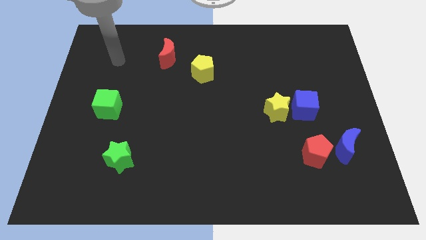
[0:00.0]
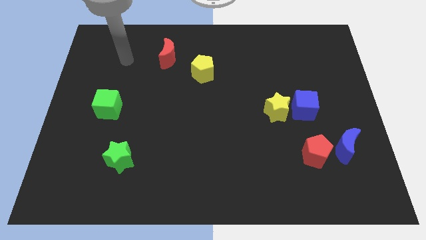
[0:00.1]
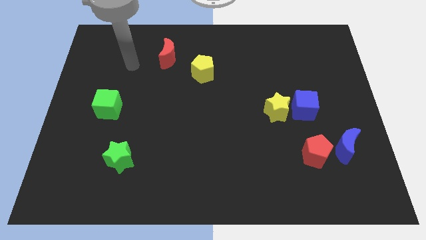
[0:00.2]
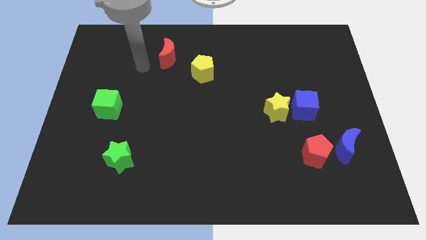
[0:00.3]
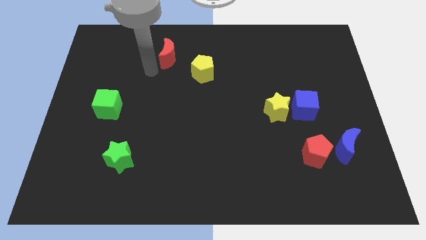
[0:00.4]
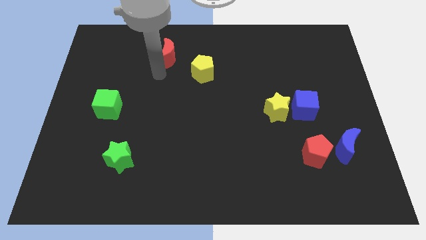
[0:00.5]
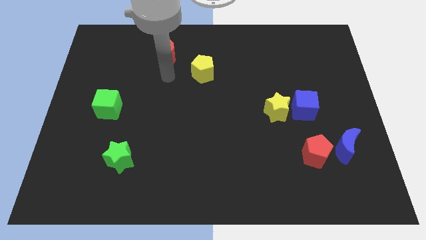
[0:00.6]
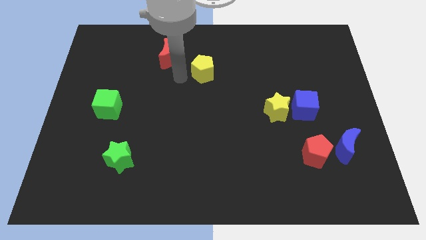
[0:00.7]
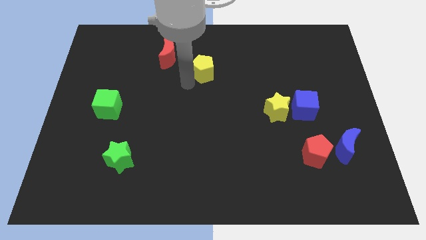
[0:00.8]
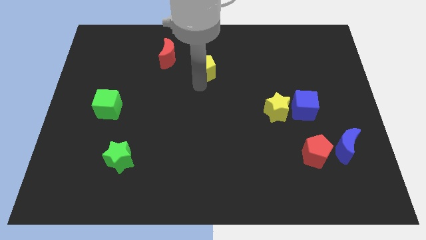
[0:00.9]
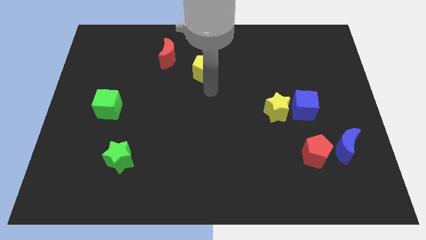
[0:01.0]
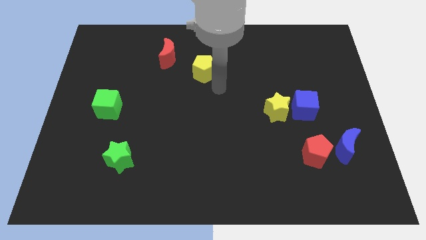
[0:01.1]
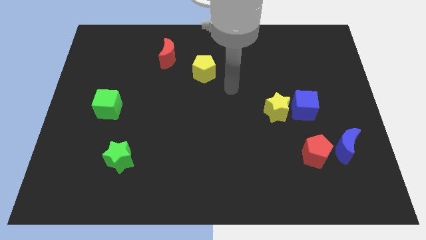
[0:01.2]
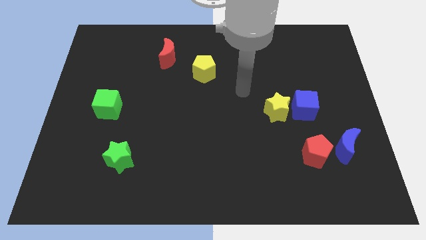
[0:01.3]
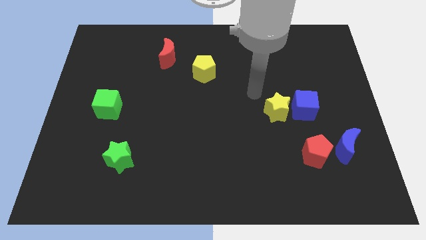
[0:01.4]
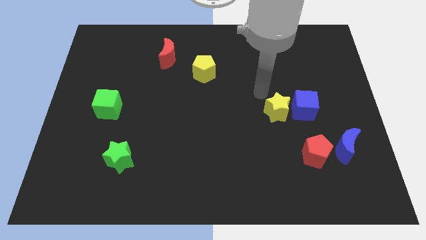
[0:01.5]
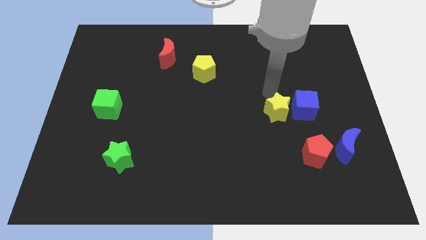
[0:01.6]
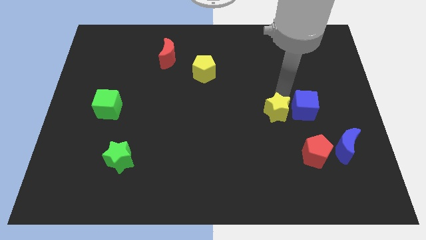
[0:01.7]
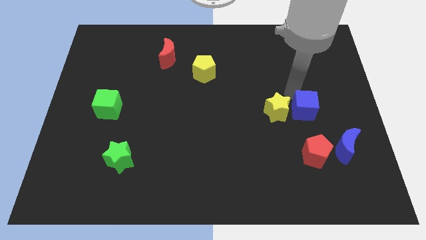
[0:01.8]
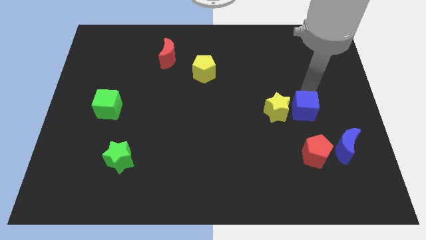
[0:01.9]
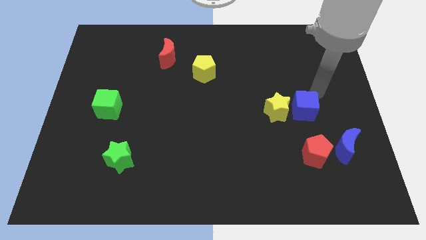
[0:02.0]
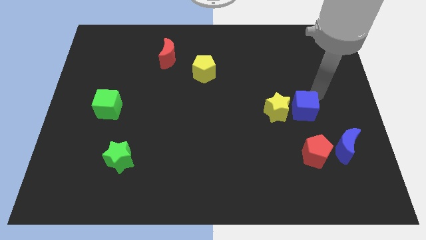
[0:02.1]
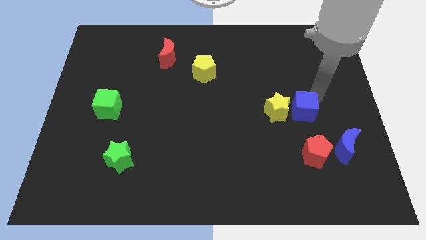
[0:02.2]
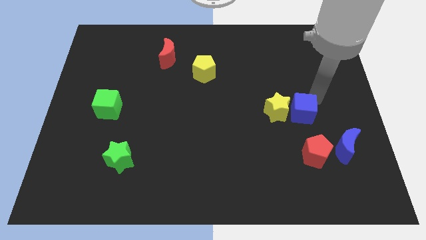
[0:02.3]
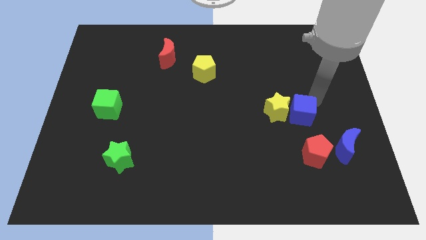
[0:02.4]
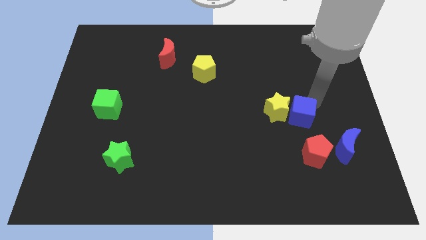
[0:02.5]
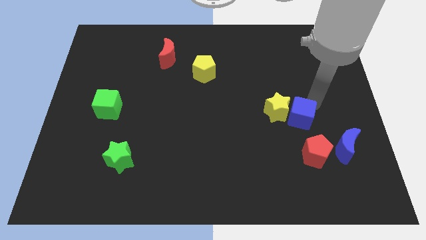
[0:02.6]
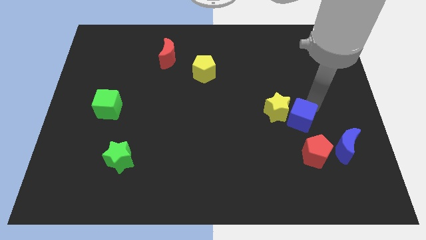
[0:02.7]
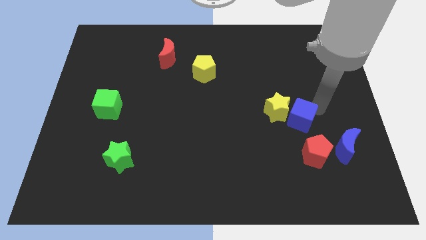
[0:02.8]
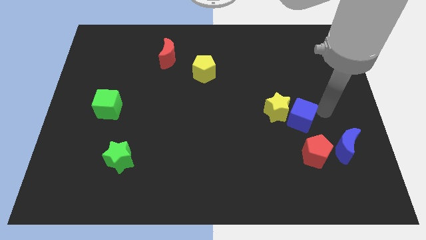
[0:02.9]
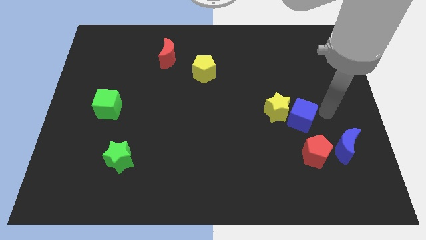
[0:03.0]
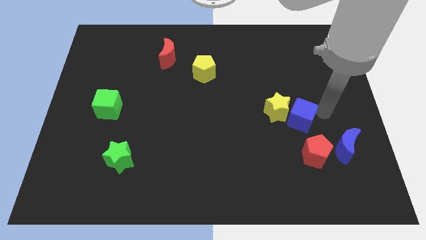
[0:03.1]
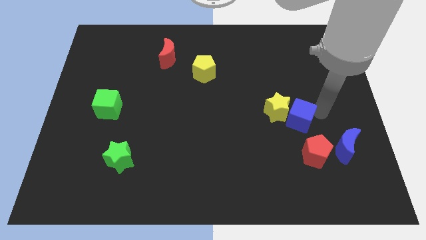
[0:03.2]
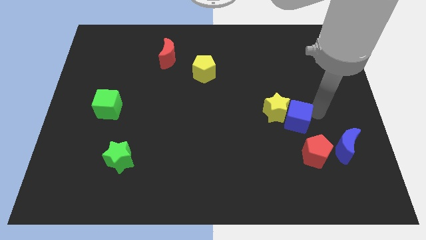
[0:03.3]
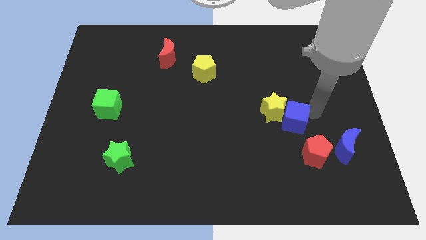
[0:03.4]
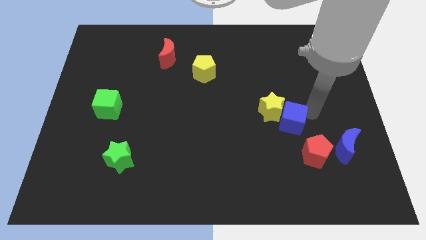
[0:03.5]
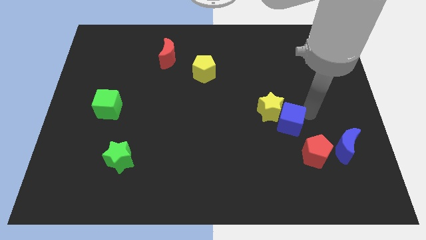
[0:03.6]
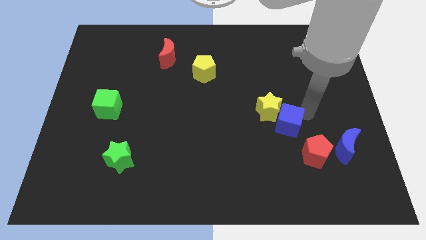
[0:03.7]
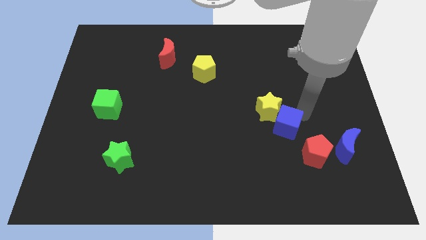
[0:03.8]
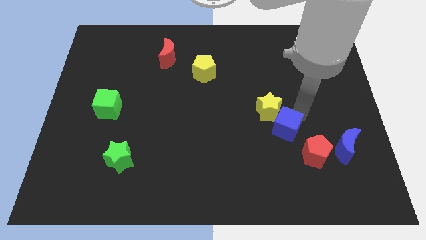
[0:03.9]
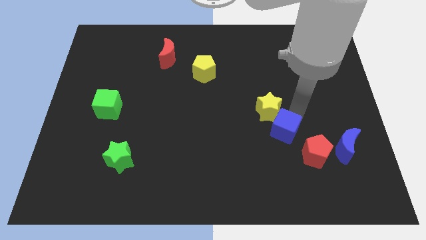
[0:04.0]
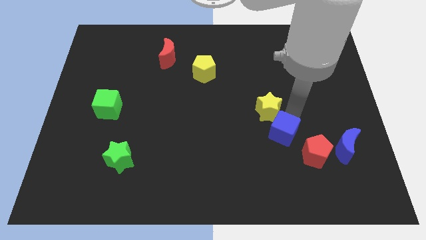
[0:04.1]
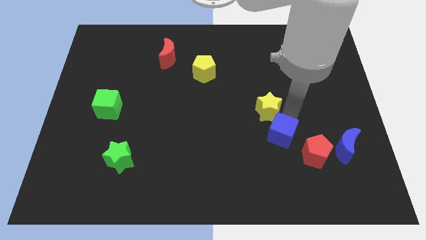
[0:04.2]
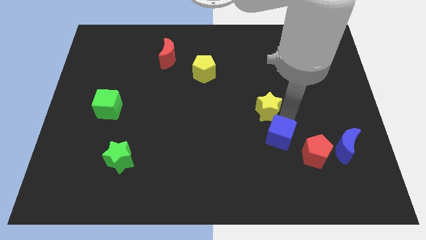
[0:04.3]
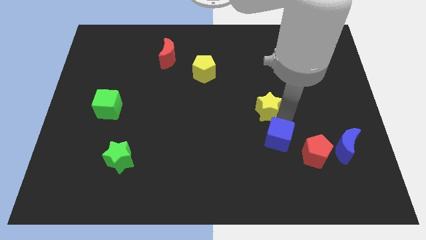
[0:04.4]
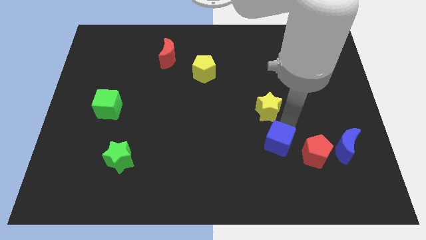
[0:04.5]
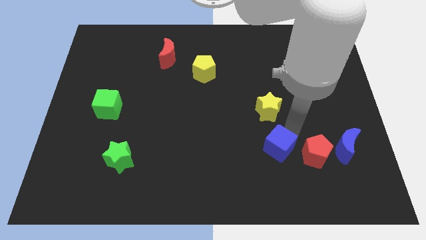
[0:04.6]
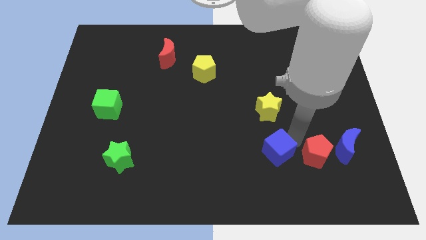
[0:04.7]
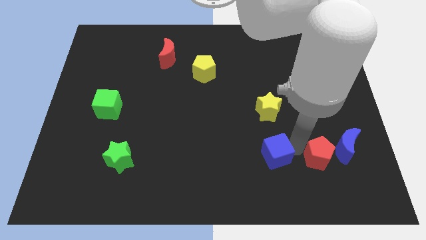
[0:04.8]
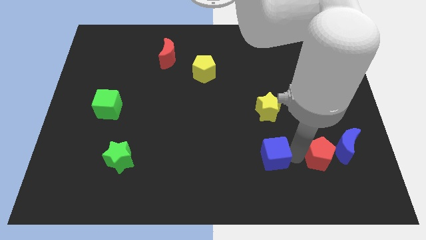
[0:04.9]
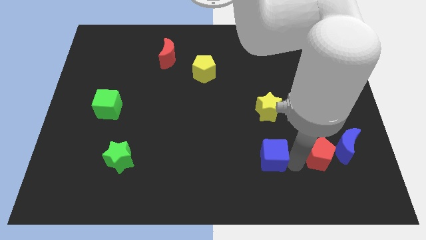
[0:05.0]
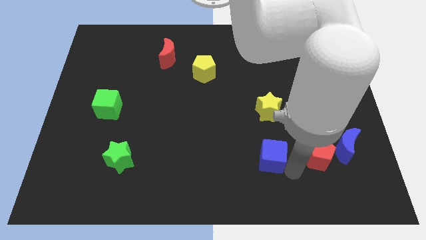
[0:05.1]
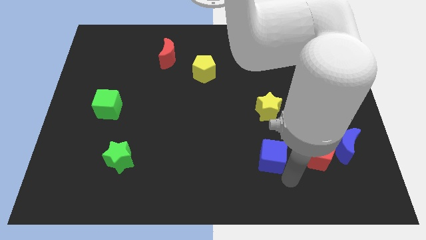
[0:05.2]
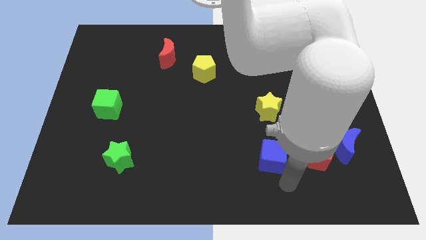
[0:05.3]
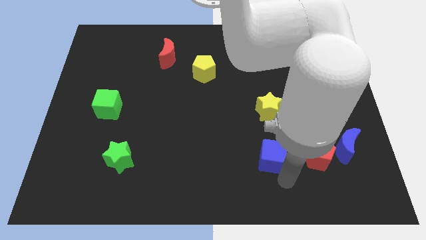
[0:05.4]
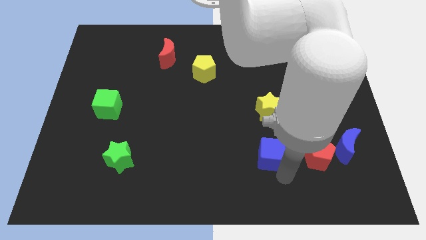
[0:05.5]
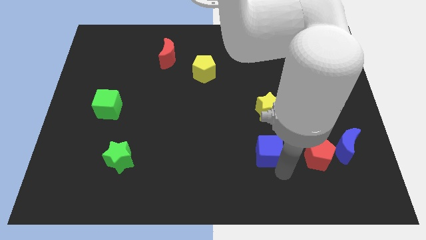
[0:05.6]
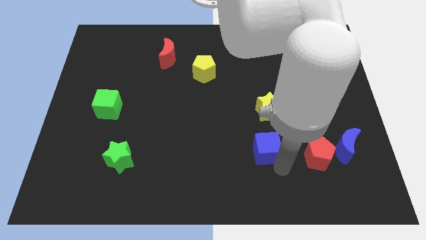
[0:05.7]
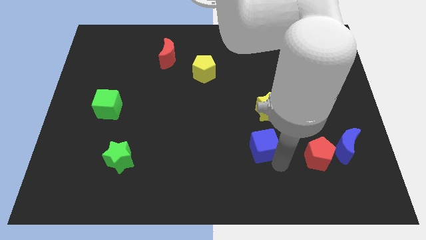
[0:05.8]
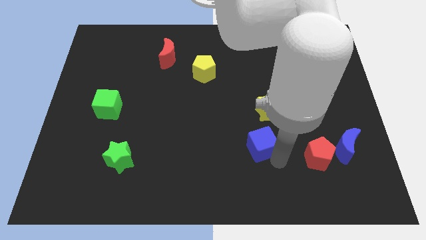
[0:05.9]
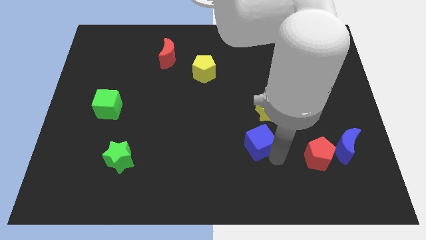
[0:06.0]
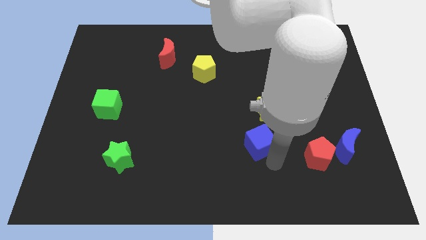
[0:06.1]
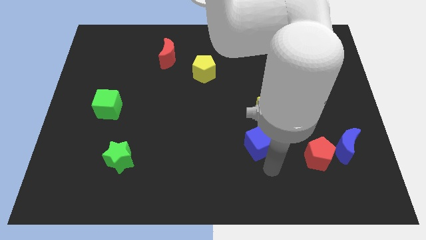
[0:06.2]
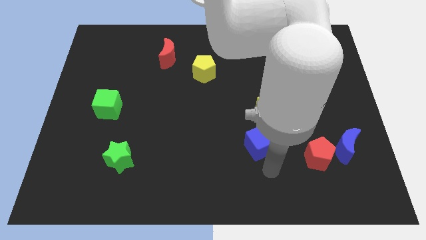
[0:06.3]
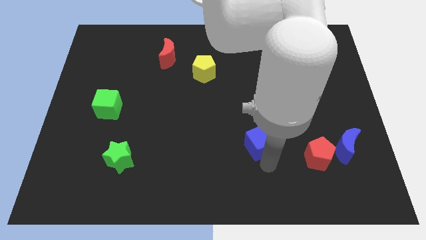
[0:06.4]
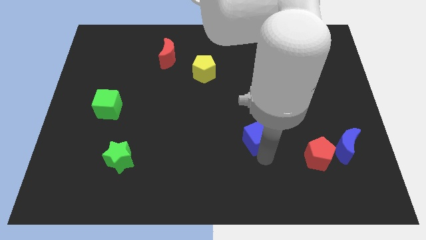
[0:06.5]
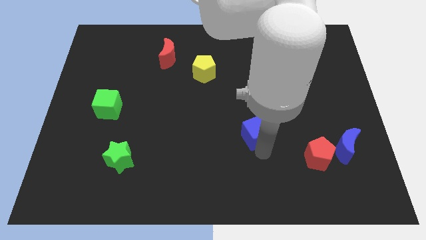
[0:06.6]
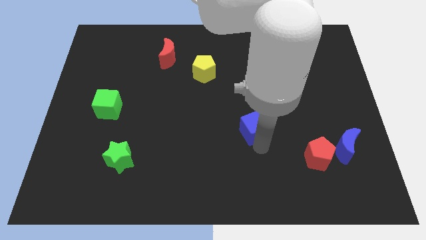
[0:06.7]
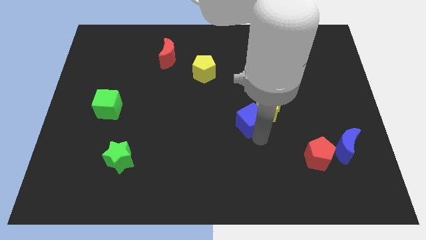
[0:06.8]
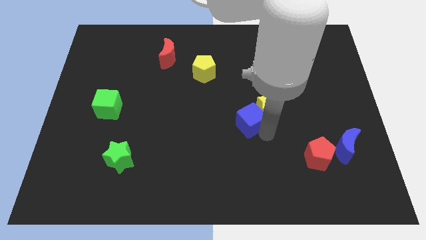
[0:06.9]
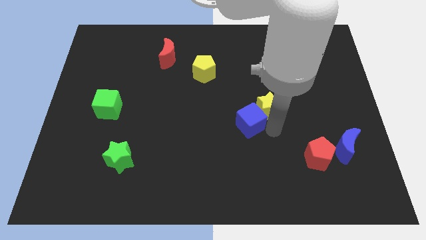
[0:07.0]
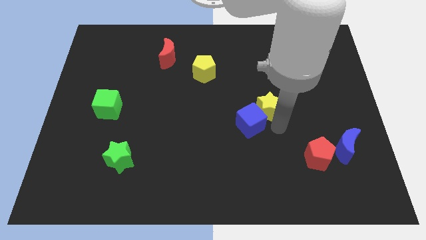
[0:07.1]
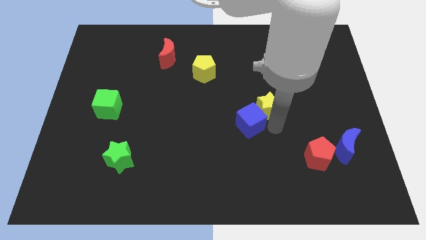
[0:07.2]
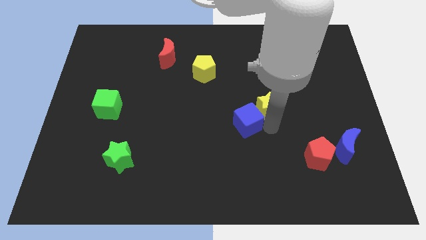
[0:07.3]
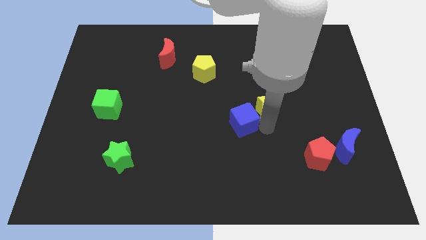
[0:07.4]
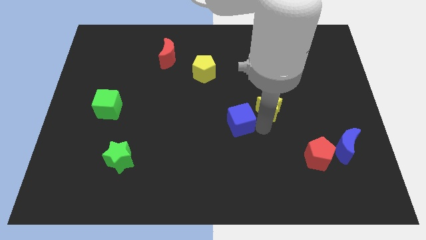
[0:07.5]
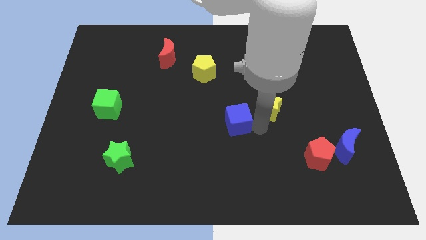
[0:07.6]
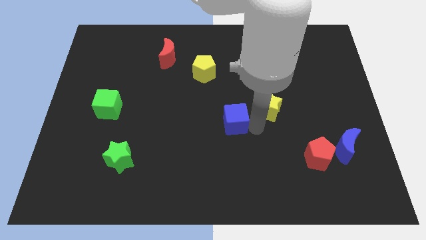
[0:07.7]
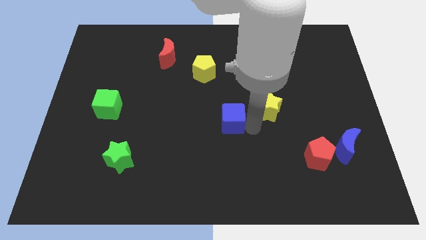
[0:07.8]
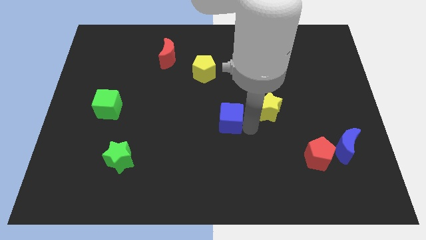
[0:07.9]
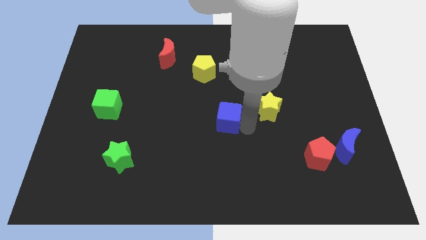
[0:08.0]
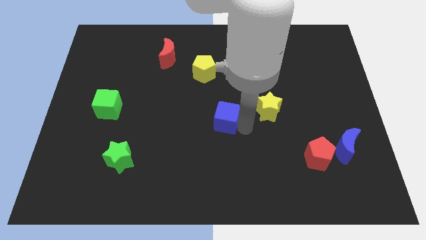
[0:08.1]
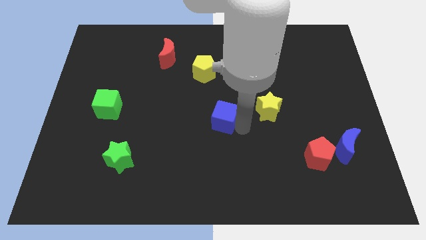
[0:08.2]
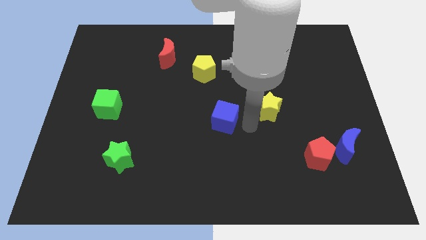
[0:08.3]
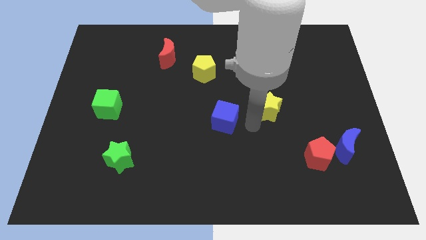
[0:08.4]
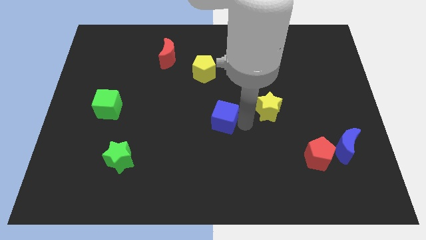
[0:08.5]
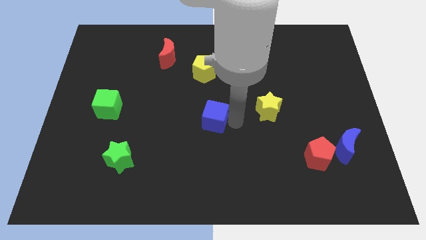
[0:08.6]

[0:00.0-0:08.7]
move the blue cube to the left
